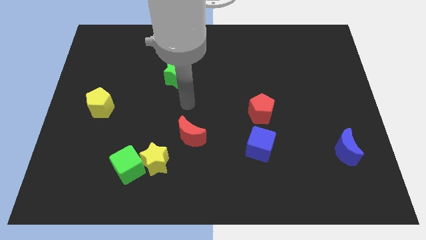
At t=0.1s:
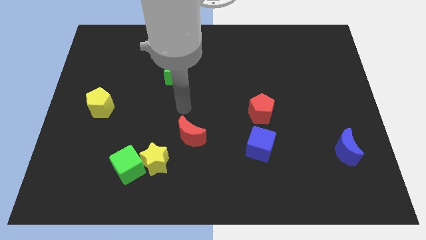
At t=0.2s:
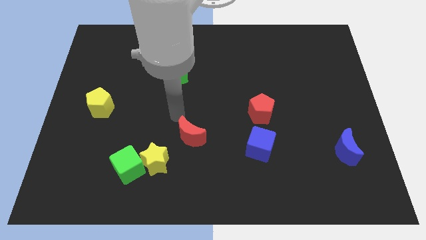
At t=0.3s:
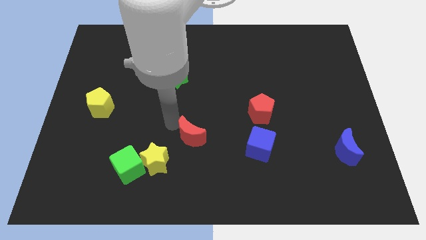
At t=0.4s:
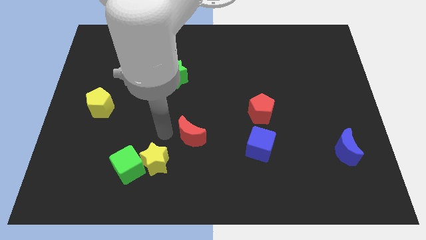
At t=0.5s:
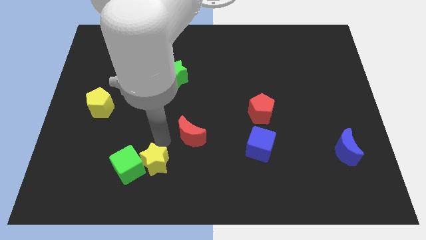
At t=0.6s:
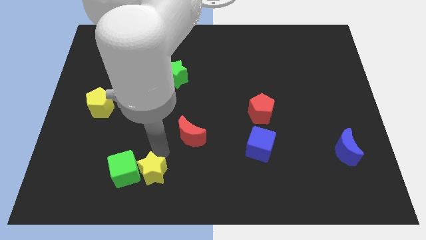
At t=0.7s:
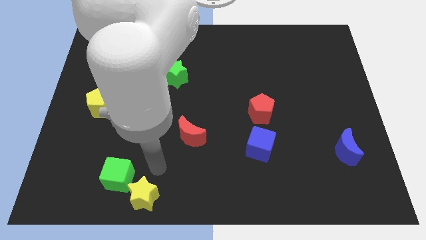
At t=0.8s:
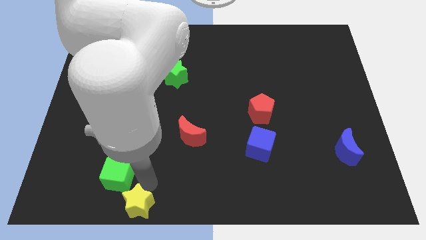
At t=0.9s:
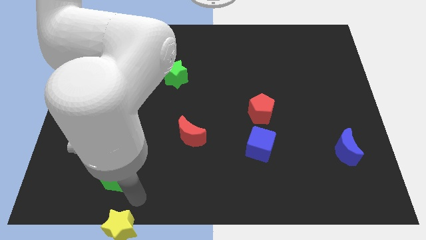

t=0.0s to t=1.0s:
separate the green cube from the yellow star

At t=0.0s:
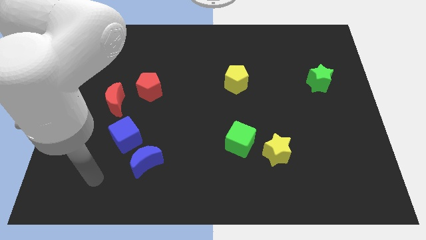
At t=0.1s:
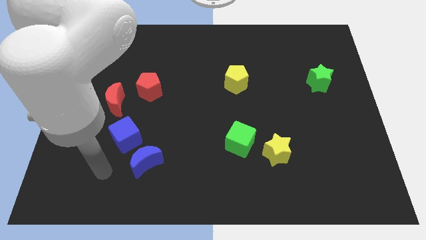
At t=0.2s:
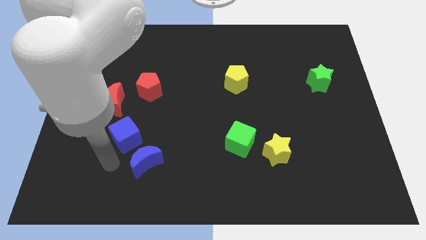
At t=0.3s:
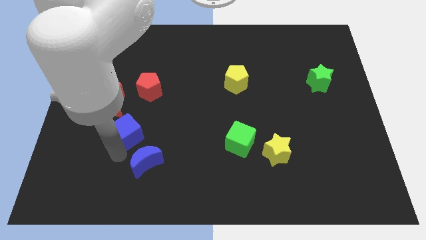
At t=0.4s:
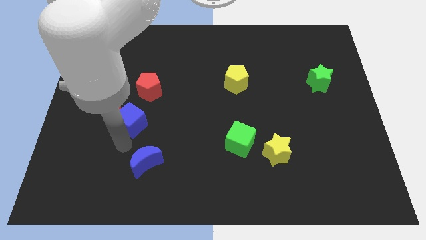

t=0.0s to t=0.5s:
pull the blue moon apart from the blue cube

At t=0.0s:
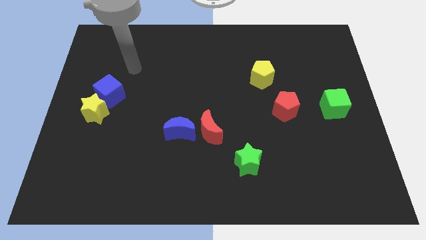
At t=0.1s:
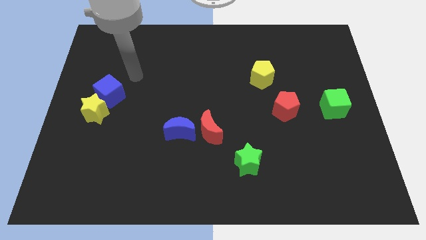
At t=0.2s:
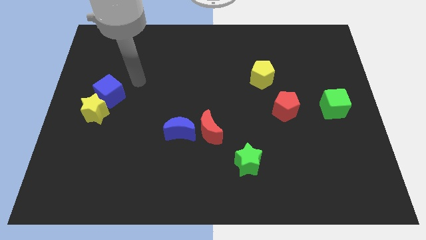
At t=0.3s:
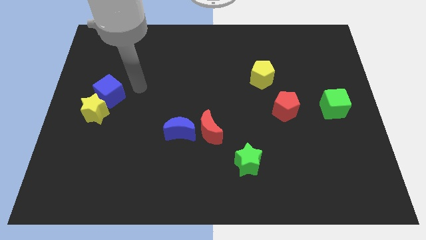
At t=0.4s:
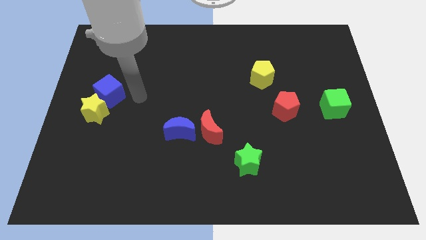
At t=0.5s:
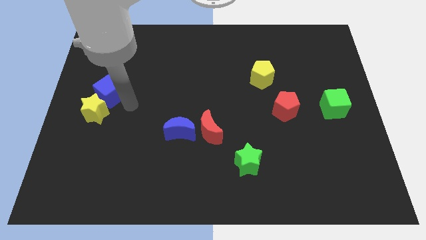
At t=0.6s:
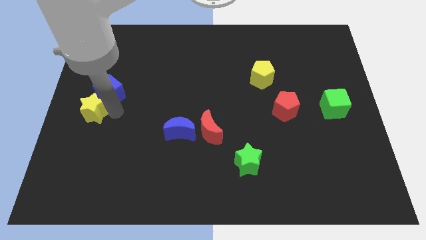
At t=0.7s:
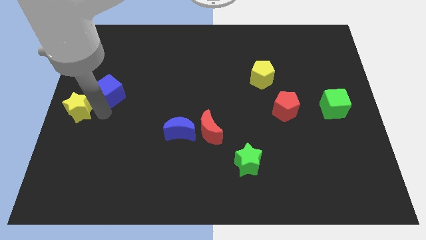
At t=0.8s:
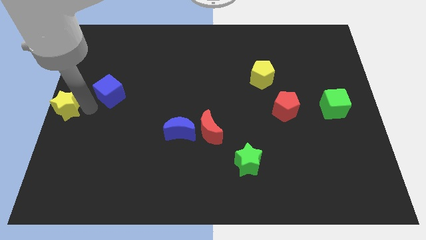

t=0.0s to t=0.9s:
separate the blue cube from the yellow star

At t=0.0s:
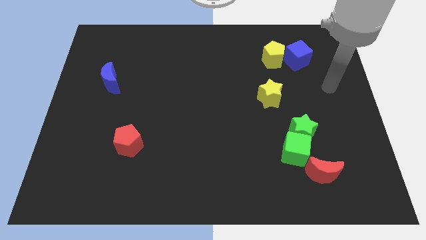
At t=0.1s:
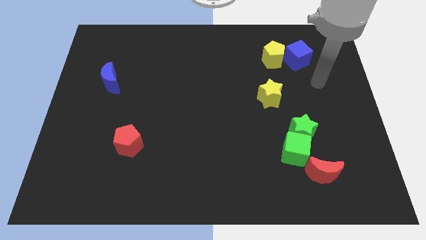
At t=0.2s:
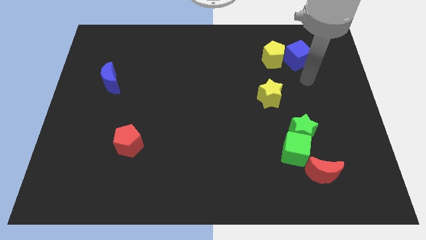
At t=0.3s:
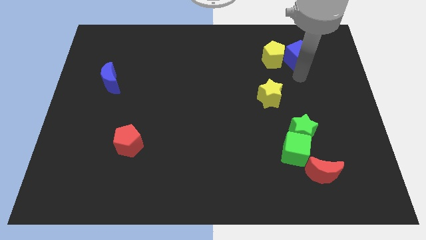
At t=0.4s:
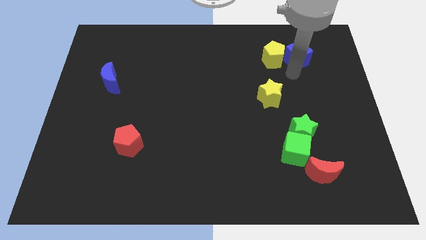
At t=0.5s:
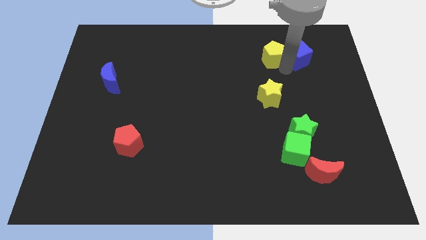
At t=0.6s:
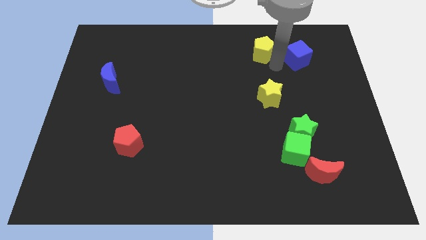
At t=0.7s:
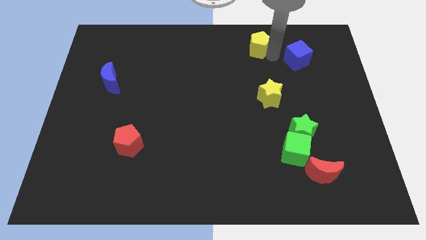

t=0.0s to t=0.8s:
pull the blue cube apart from the yellow pentagon

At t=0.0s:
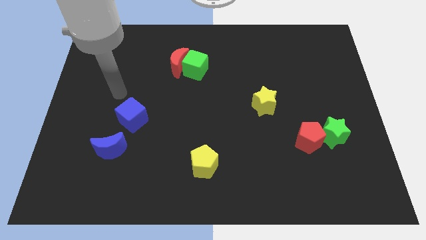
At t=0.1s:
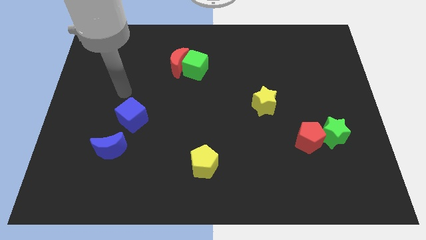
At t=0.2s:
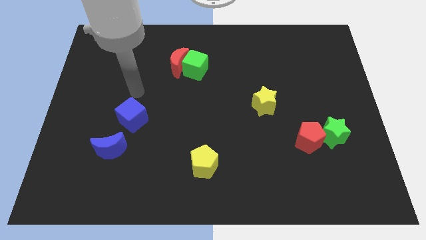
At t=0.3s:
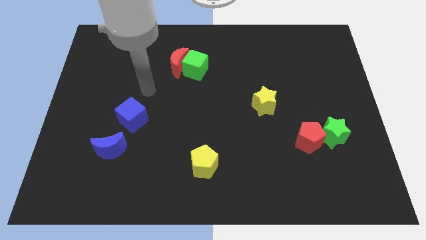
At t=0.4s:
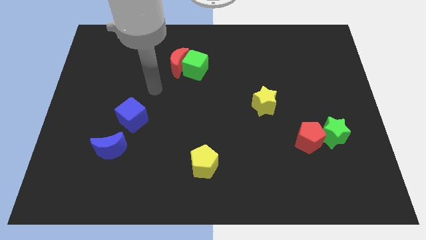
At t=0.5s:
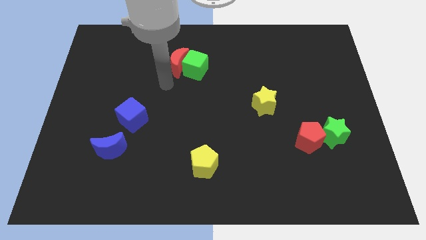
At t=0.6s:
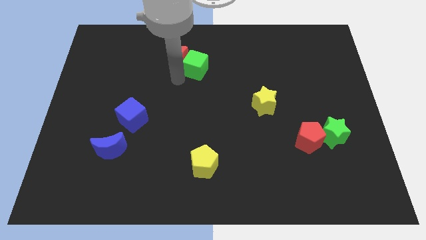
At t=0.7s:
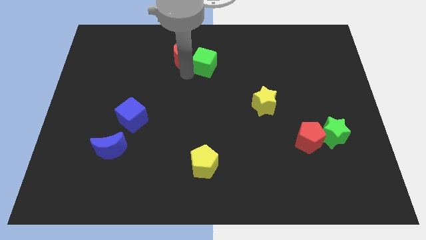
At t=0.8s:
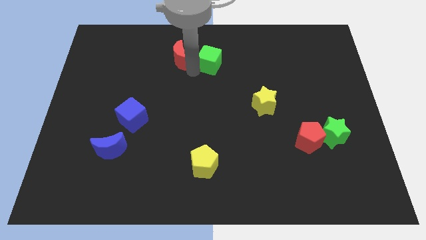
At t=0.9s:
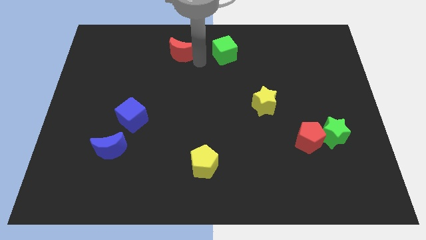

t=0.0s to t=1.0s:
pull the red moon apart from the green cube

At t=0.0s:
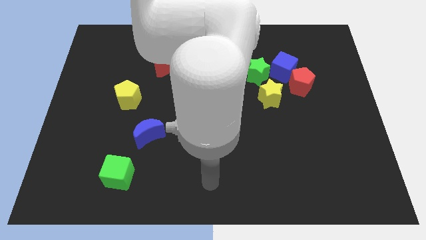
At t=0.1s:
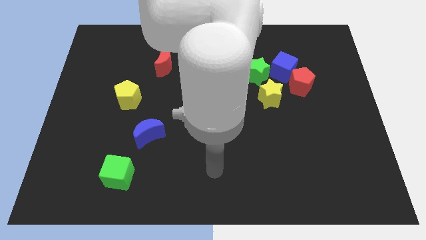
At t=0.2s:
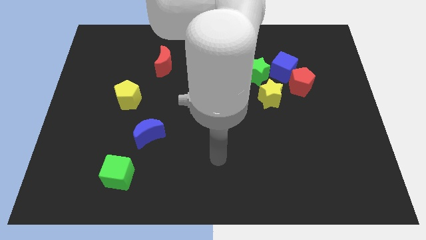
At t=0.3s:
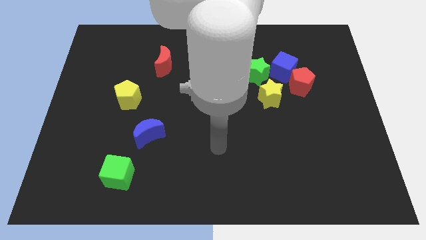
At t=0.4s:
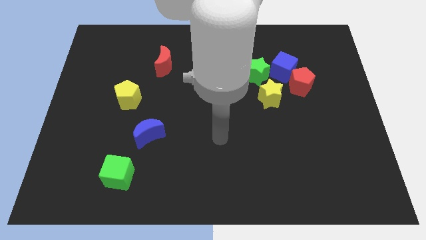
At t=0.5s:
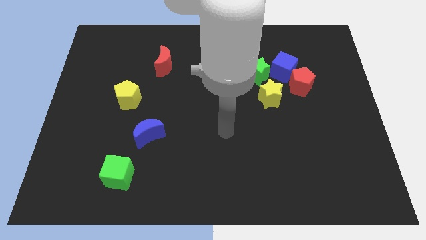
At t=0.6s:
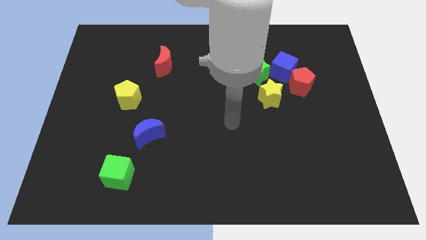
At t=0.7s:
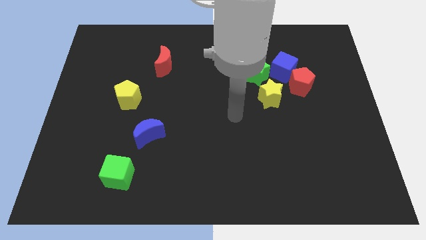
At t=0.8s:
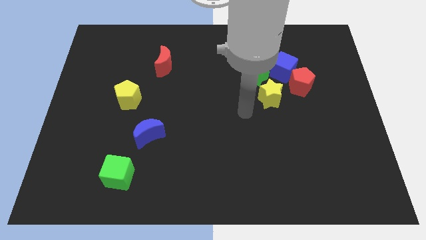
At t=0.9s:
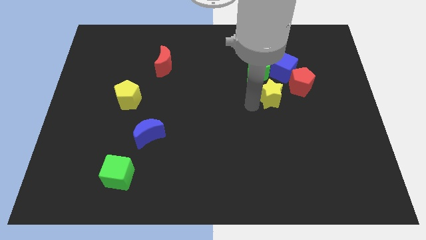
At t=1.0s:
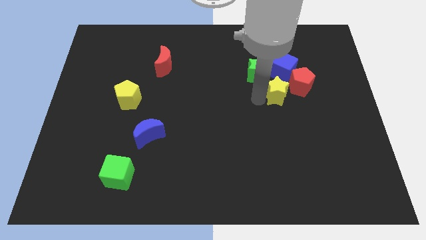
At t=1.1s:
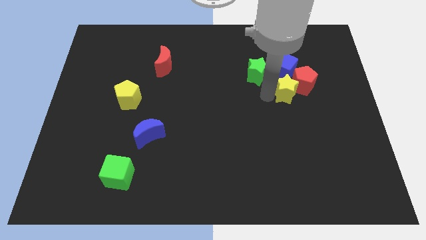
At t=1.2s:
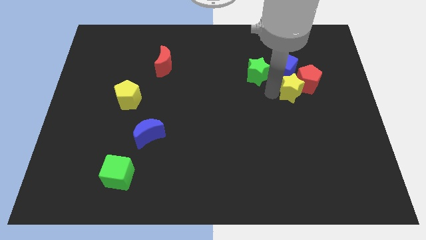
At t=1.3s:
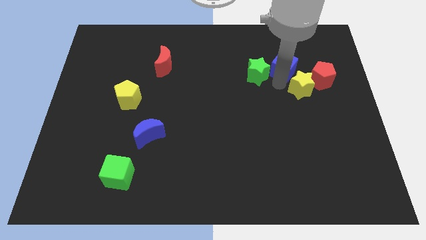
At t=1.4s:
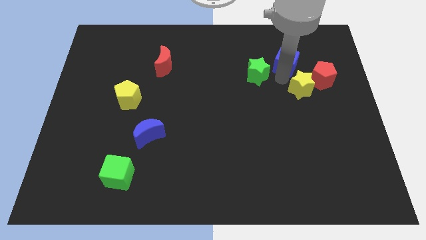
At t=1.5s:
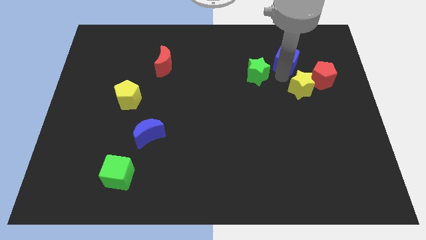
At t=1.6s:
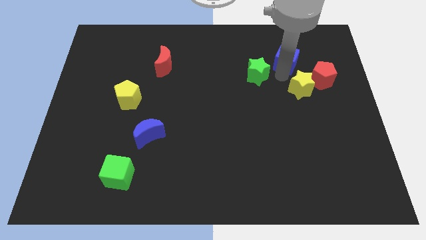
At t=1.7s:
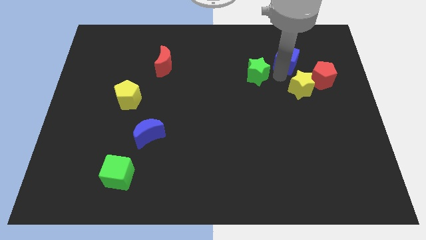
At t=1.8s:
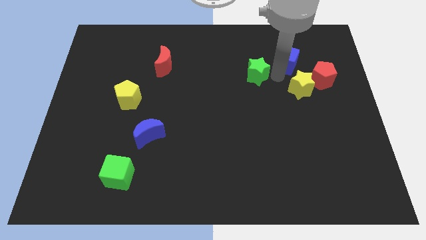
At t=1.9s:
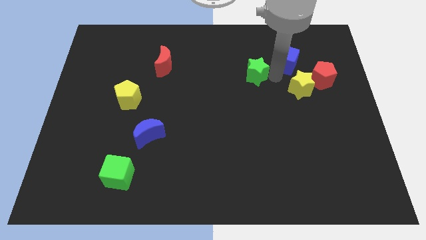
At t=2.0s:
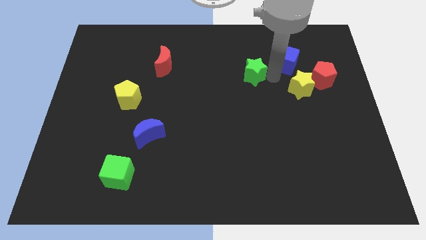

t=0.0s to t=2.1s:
pull the green star apart from the blue cube and yellow star

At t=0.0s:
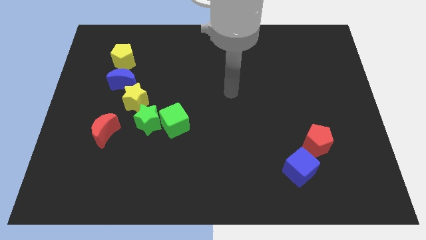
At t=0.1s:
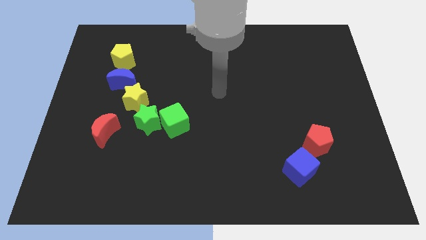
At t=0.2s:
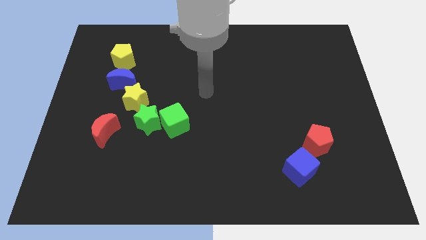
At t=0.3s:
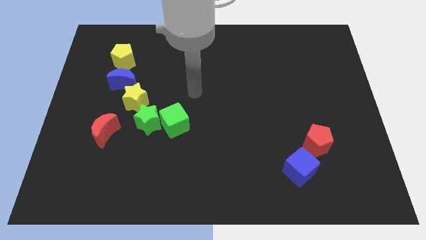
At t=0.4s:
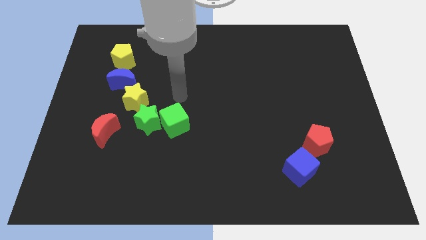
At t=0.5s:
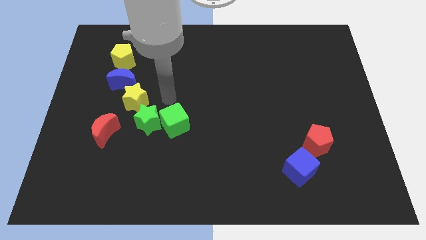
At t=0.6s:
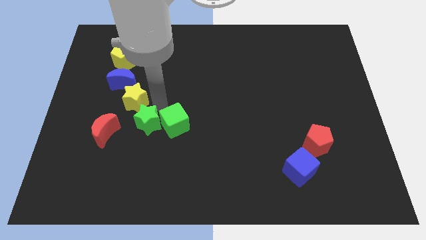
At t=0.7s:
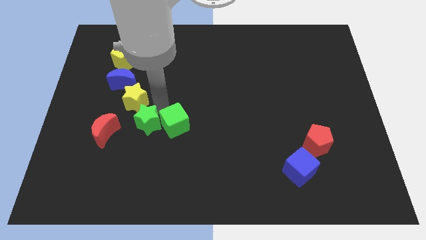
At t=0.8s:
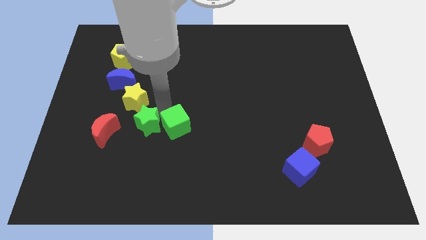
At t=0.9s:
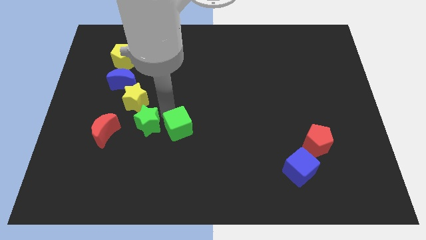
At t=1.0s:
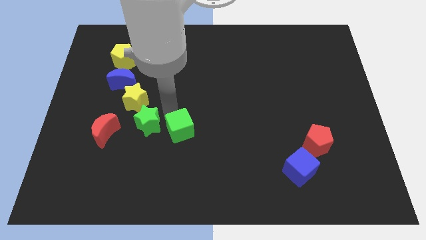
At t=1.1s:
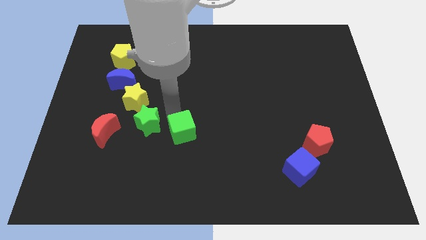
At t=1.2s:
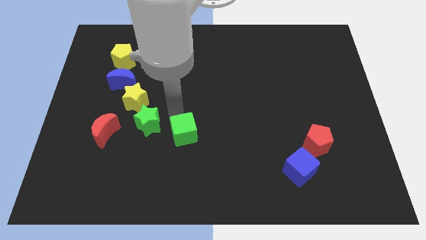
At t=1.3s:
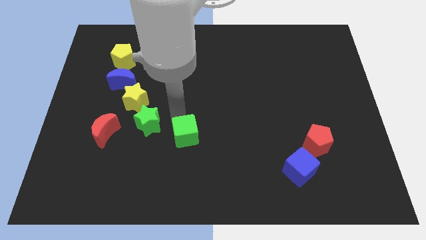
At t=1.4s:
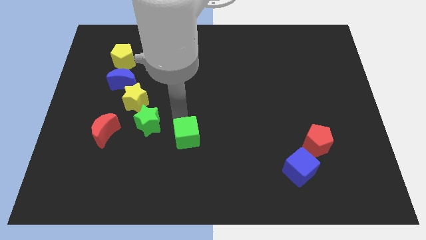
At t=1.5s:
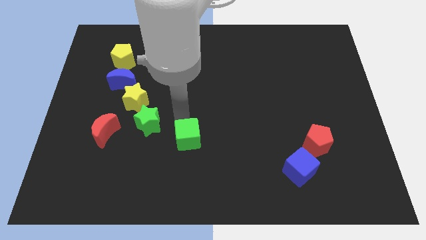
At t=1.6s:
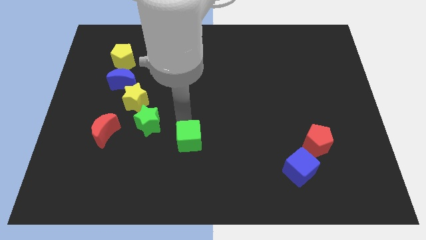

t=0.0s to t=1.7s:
pull the green cube apart from the green star

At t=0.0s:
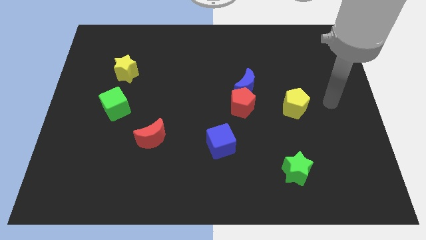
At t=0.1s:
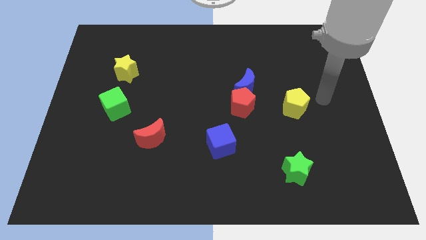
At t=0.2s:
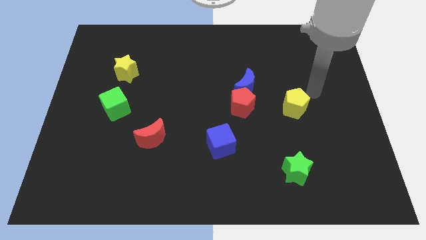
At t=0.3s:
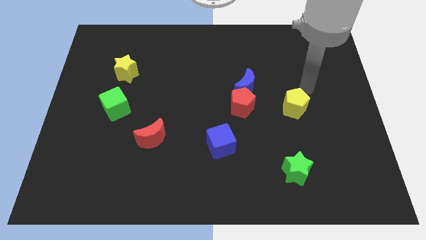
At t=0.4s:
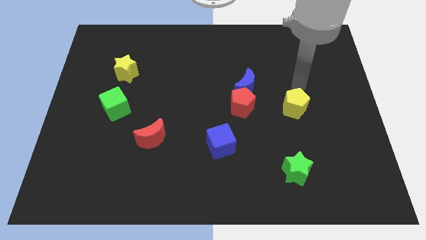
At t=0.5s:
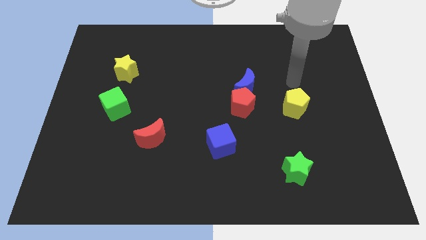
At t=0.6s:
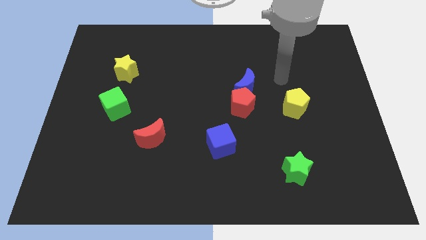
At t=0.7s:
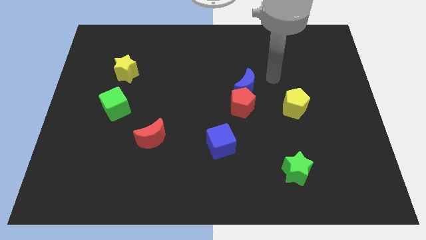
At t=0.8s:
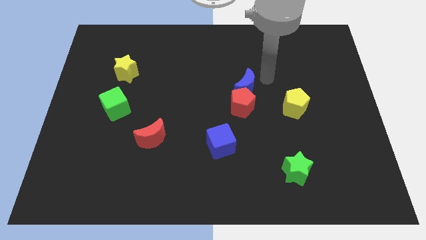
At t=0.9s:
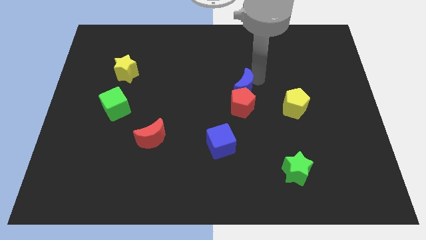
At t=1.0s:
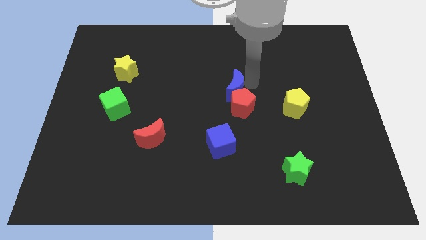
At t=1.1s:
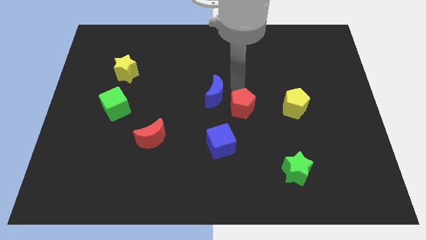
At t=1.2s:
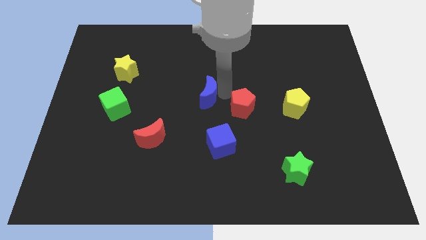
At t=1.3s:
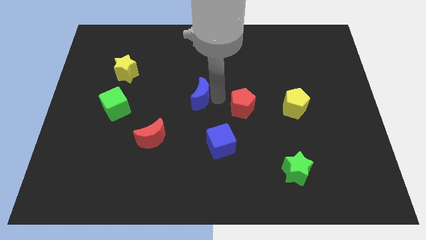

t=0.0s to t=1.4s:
move the red pentagon away from the blue moon
